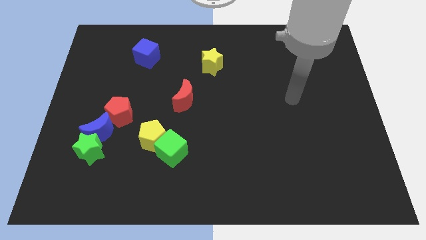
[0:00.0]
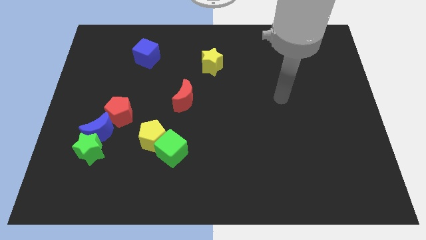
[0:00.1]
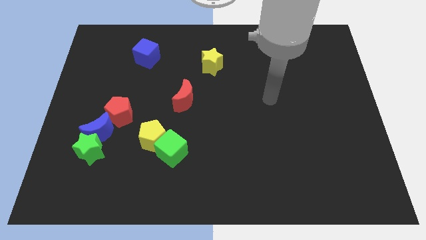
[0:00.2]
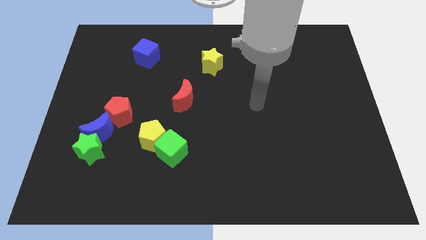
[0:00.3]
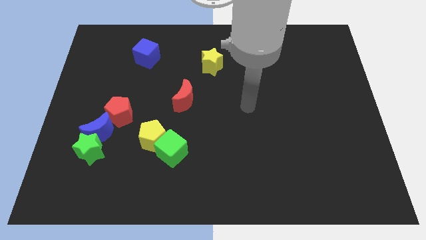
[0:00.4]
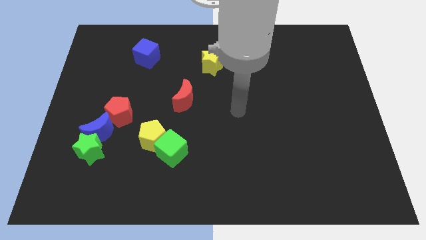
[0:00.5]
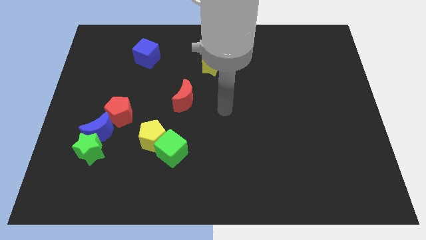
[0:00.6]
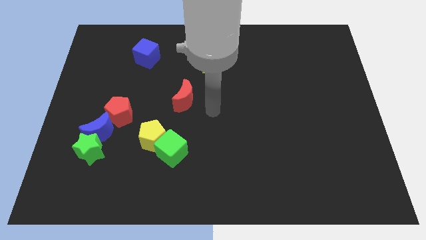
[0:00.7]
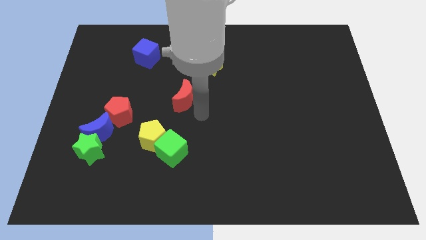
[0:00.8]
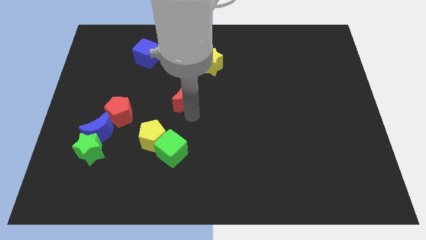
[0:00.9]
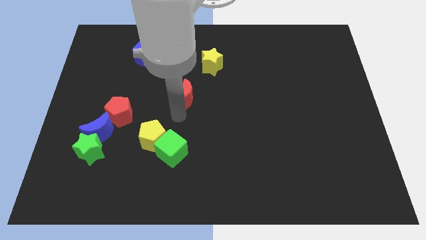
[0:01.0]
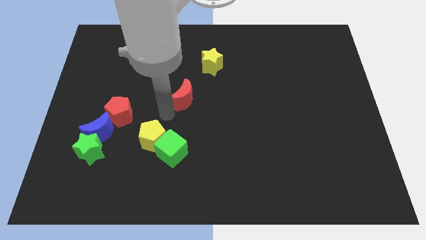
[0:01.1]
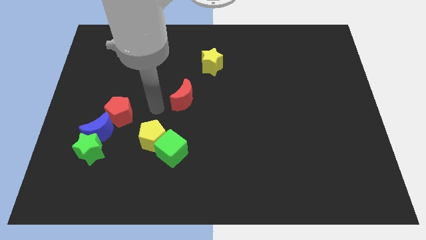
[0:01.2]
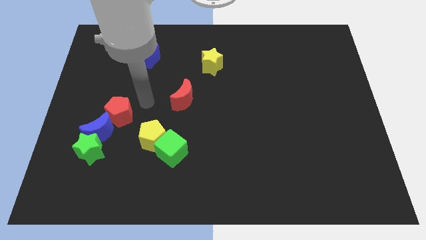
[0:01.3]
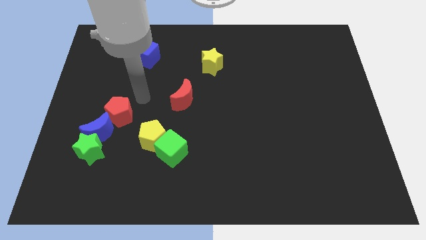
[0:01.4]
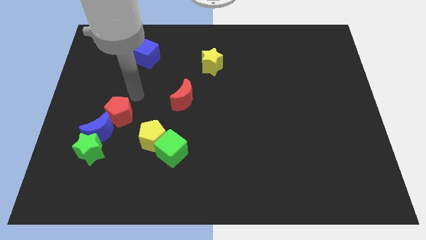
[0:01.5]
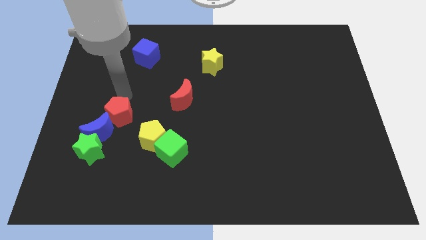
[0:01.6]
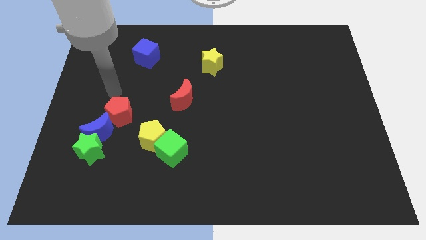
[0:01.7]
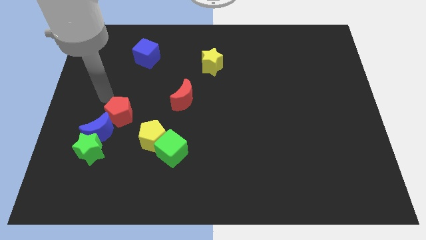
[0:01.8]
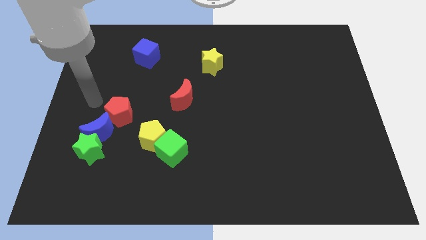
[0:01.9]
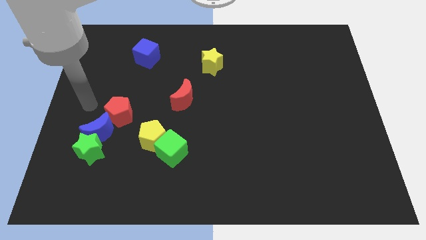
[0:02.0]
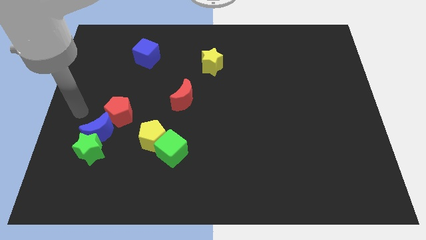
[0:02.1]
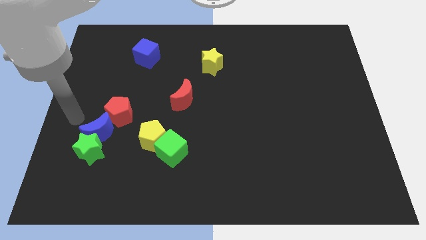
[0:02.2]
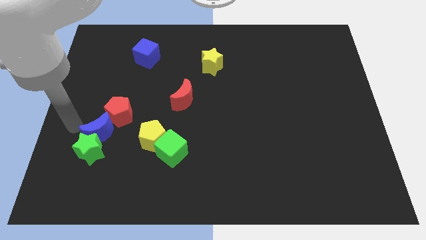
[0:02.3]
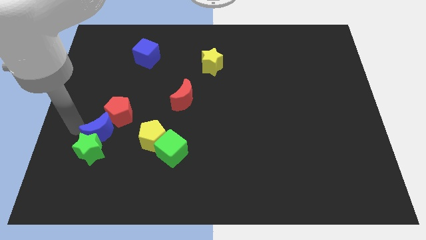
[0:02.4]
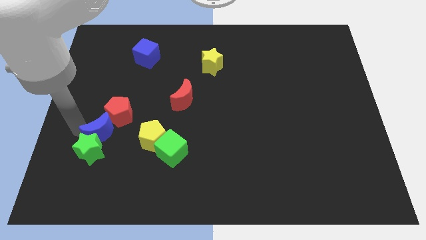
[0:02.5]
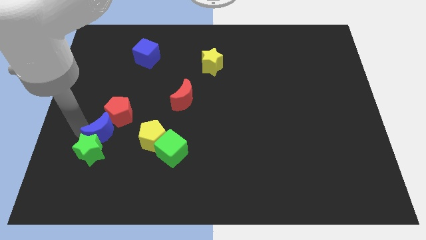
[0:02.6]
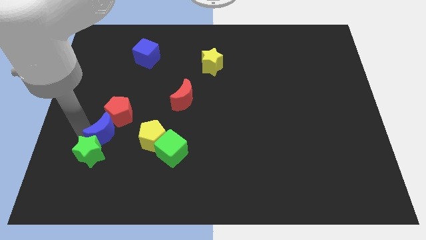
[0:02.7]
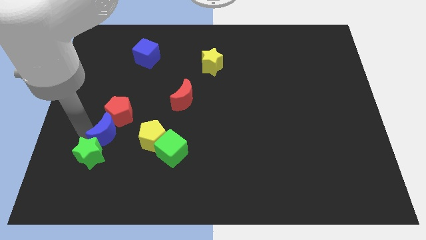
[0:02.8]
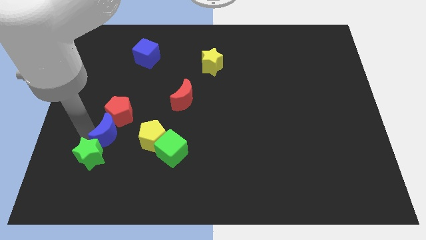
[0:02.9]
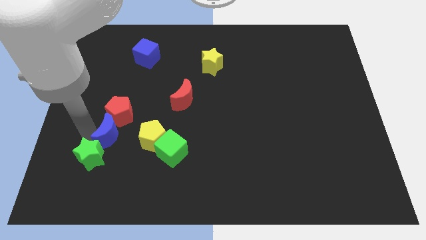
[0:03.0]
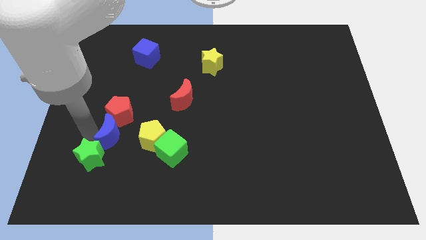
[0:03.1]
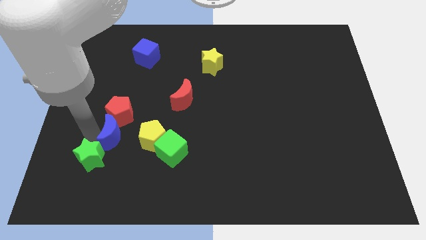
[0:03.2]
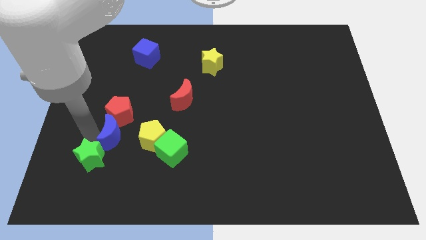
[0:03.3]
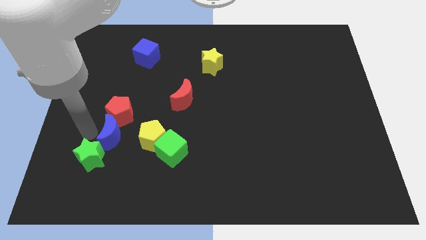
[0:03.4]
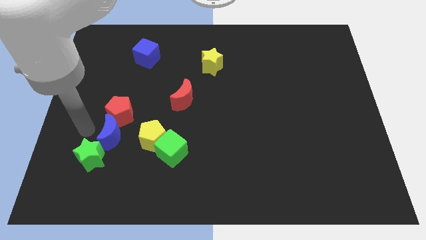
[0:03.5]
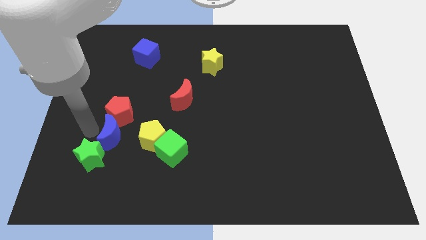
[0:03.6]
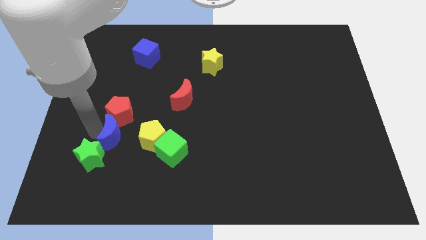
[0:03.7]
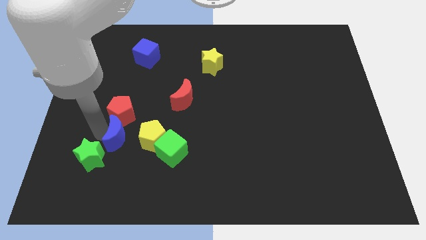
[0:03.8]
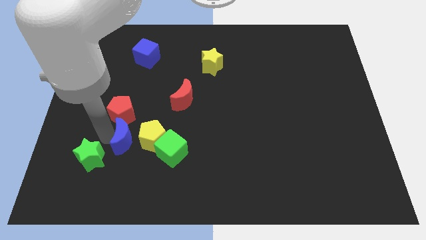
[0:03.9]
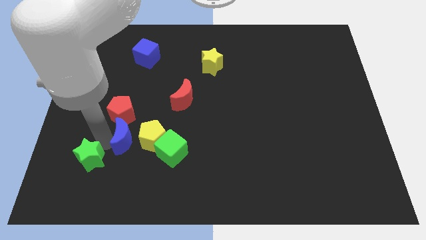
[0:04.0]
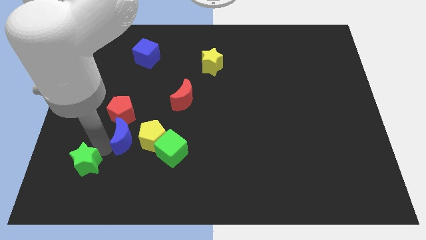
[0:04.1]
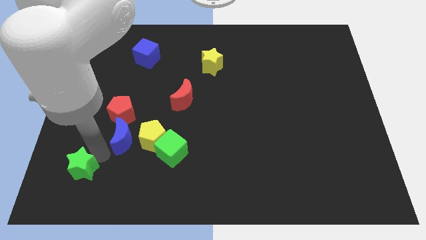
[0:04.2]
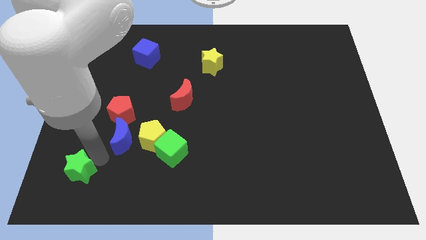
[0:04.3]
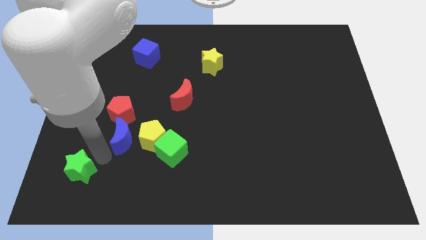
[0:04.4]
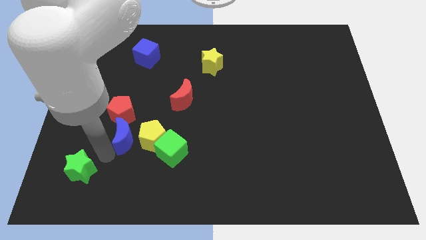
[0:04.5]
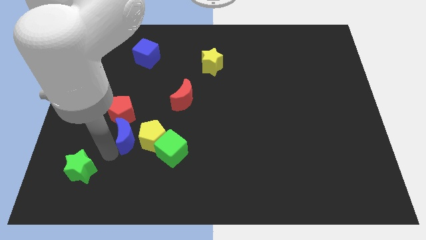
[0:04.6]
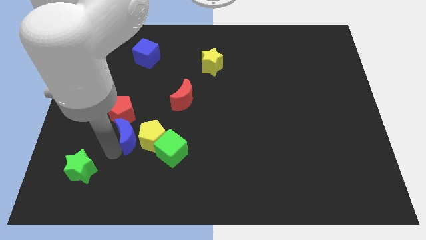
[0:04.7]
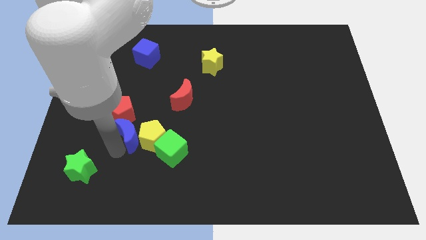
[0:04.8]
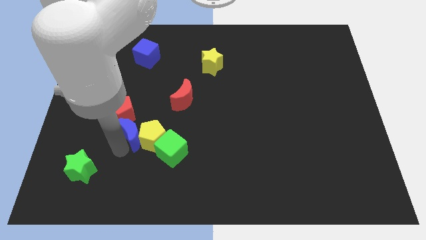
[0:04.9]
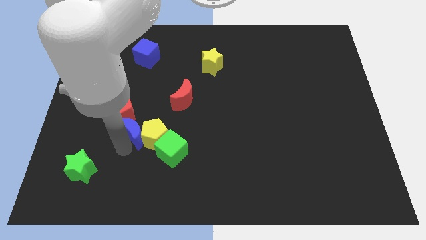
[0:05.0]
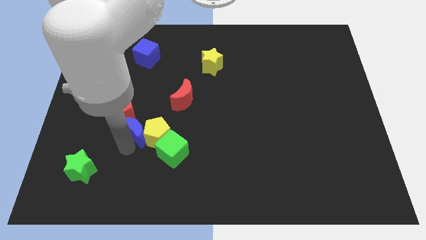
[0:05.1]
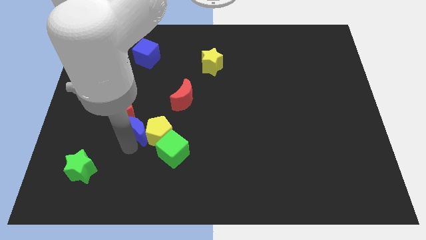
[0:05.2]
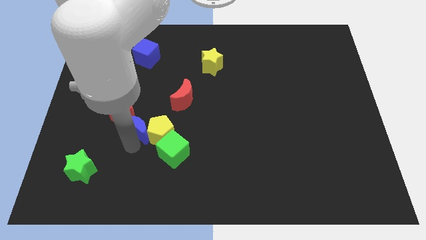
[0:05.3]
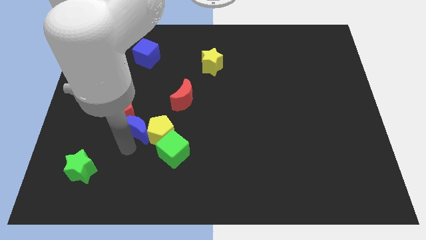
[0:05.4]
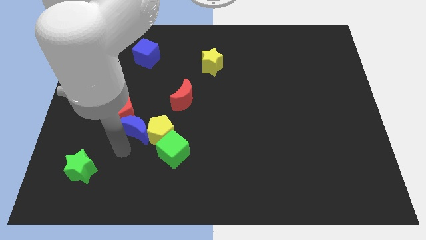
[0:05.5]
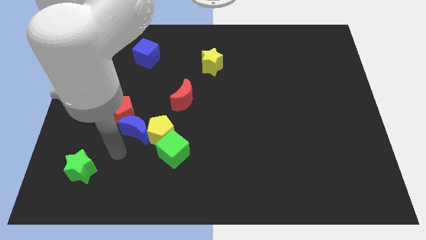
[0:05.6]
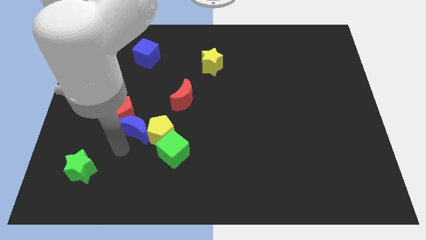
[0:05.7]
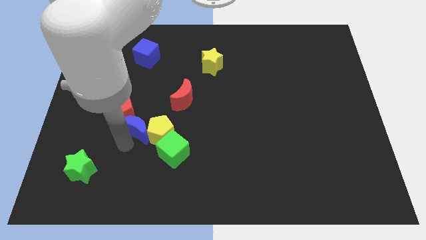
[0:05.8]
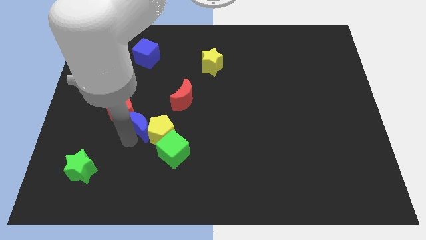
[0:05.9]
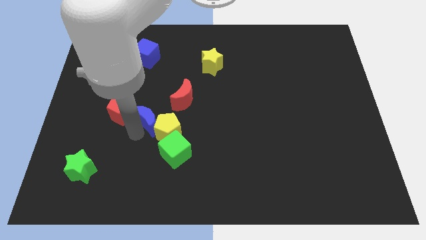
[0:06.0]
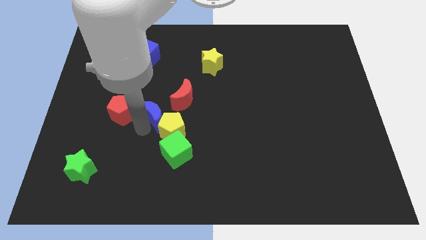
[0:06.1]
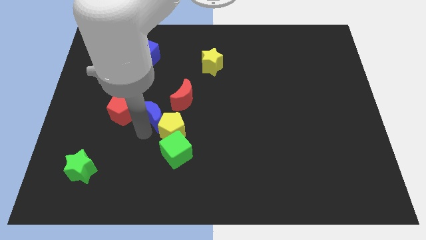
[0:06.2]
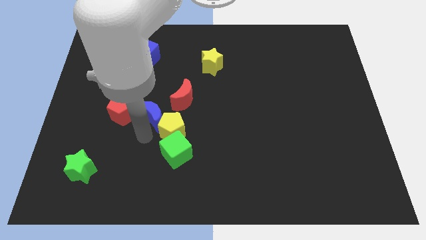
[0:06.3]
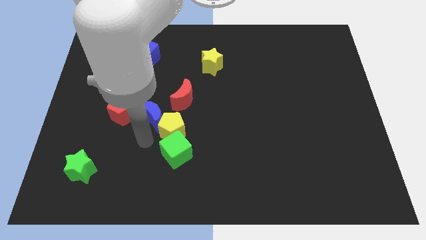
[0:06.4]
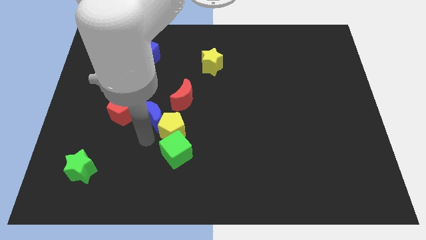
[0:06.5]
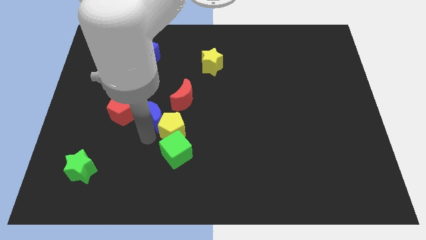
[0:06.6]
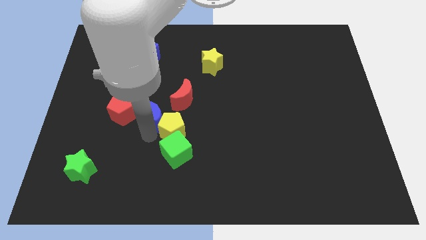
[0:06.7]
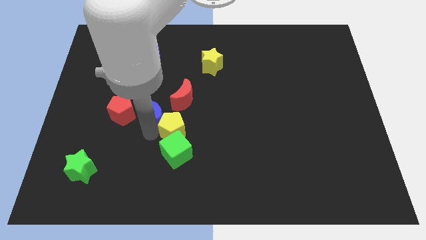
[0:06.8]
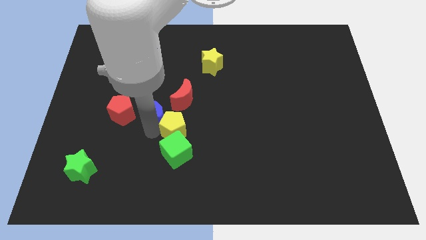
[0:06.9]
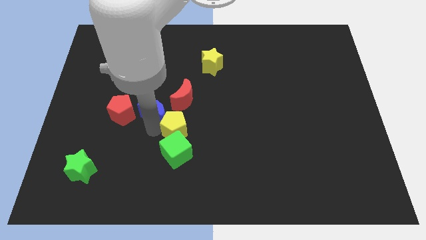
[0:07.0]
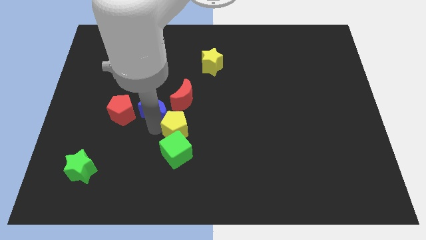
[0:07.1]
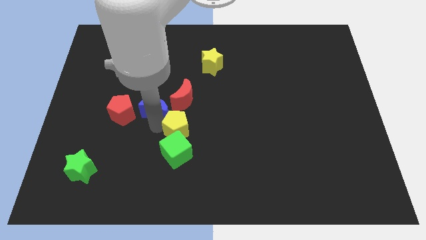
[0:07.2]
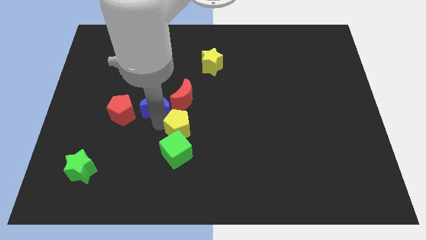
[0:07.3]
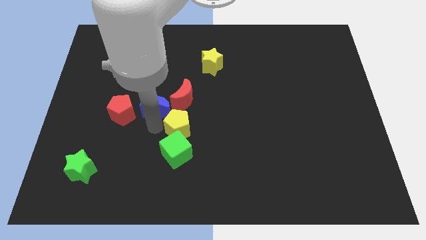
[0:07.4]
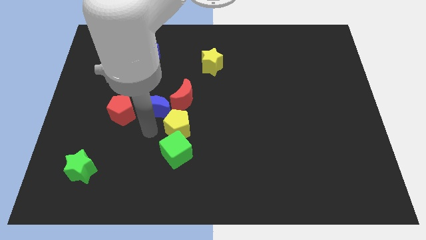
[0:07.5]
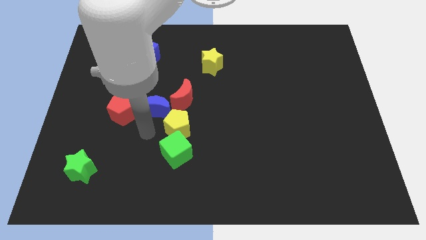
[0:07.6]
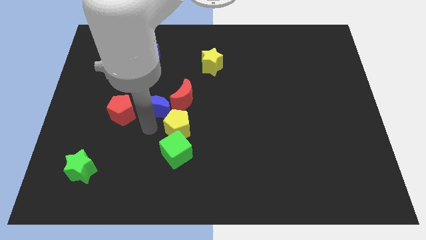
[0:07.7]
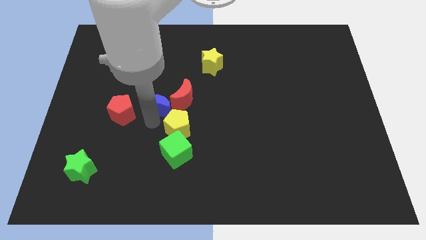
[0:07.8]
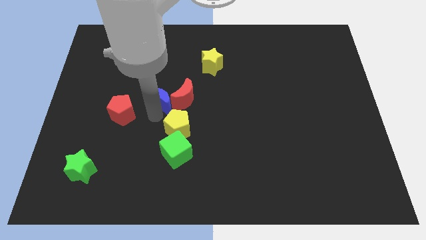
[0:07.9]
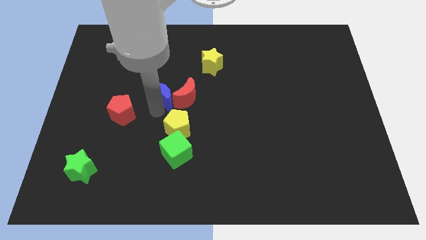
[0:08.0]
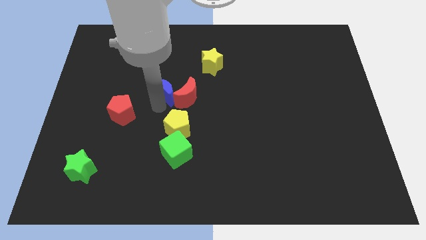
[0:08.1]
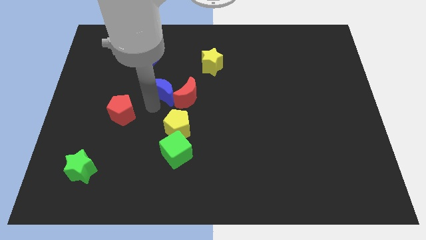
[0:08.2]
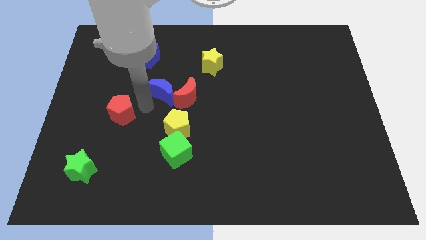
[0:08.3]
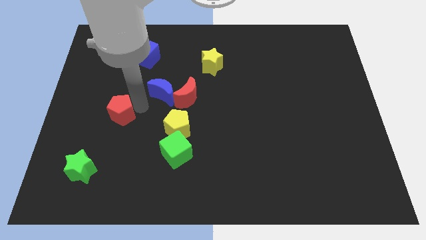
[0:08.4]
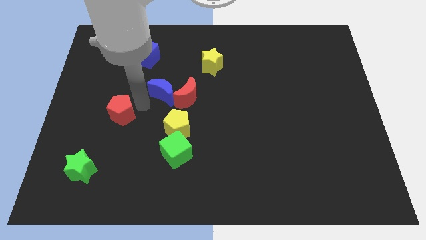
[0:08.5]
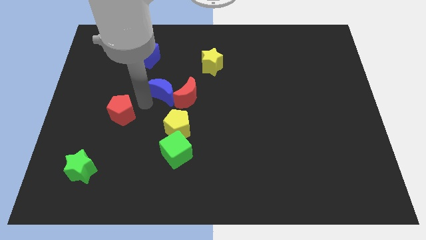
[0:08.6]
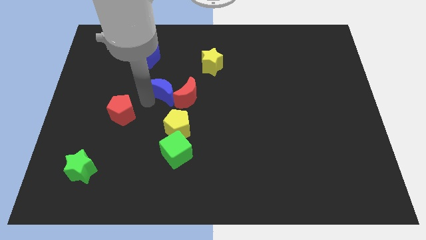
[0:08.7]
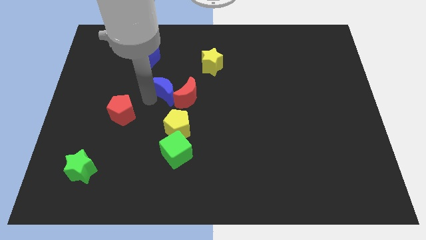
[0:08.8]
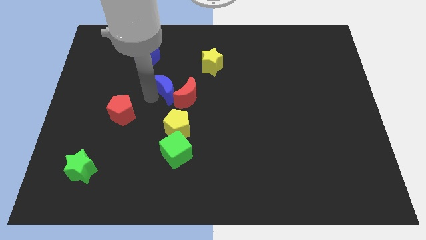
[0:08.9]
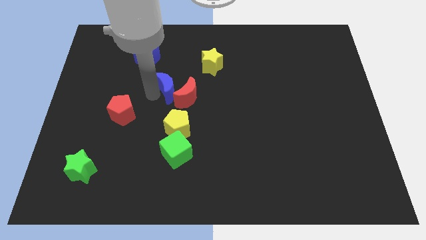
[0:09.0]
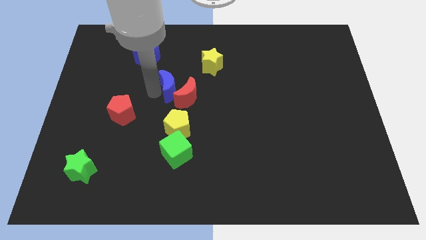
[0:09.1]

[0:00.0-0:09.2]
move the blue moon to the bottom left of the yellow star
